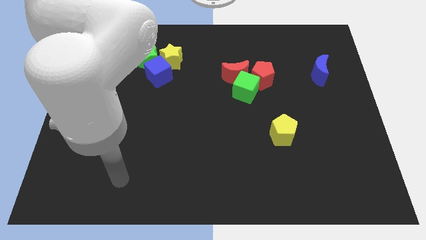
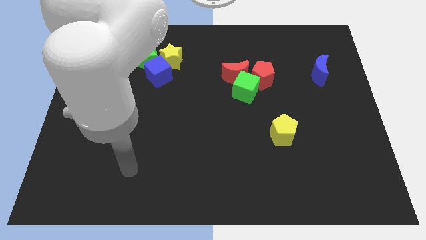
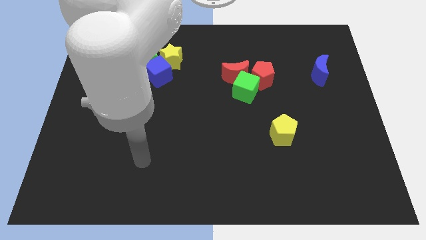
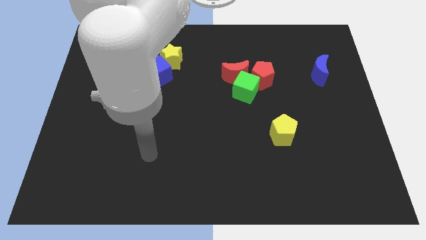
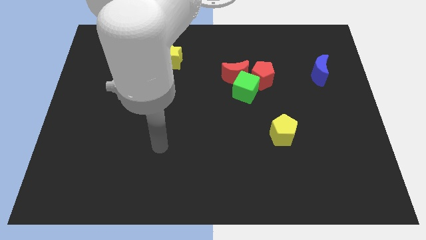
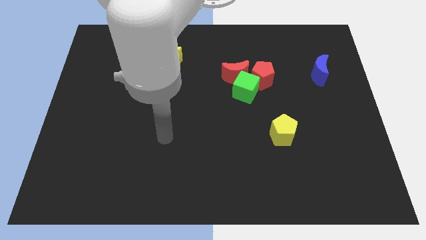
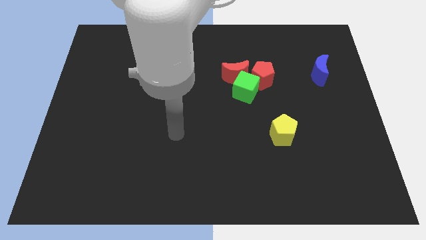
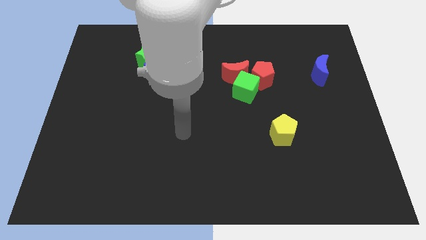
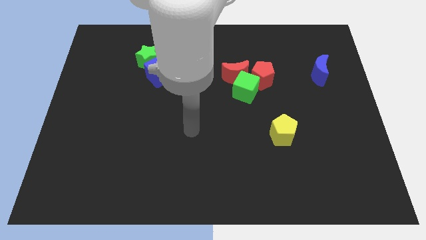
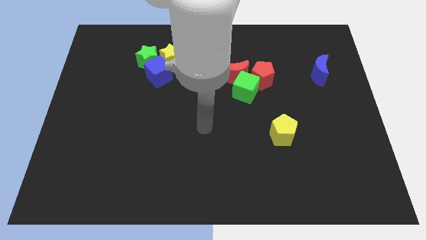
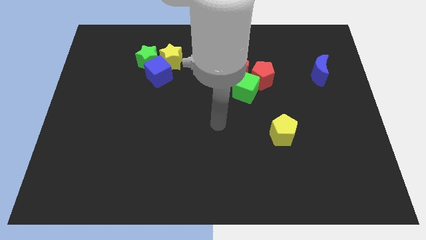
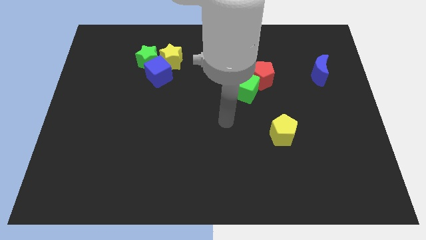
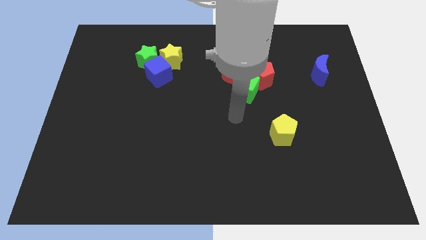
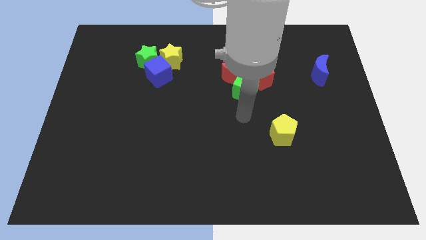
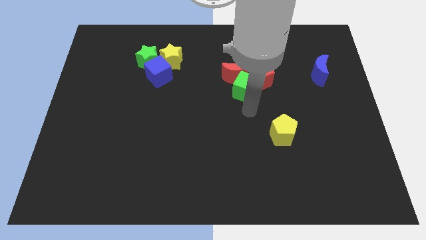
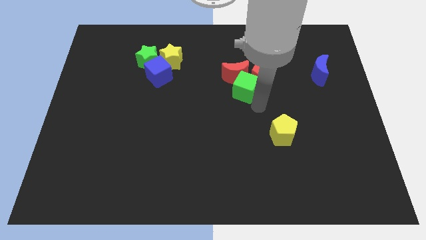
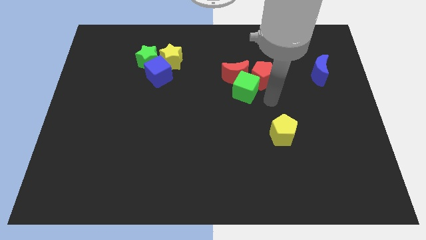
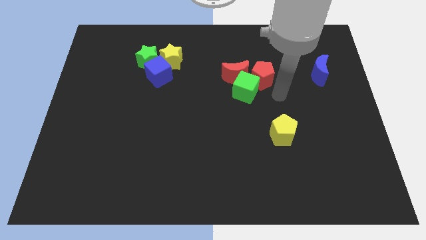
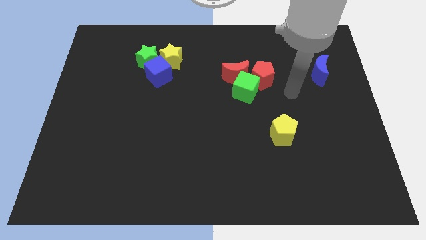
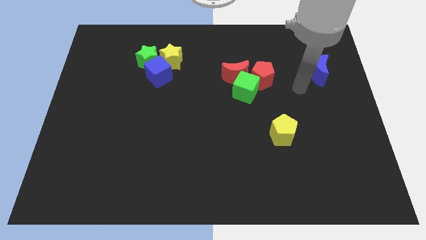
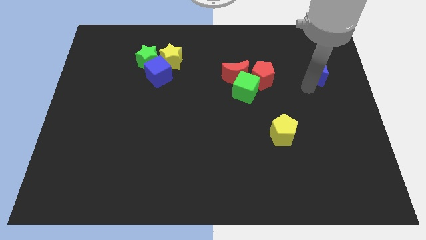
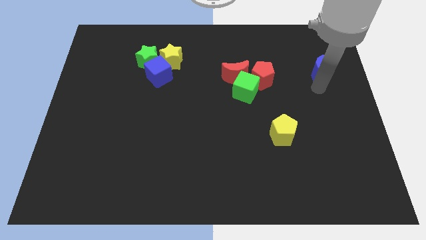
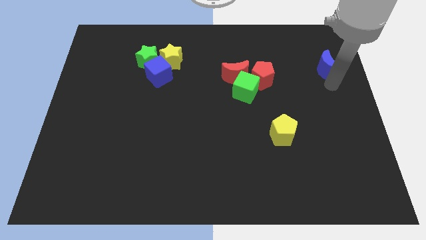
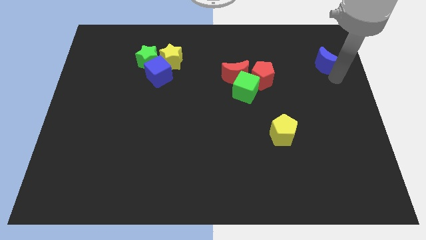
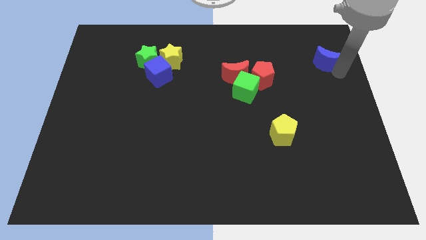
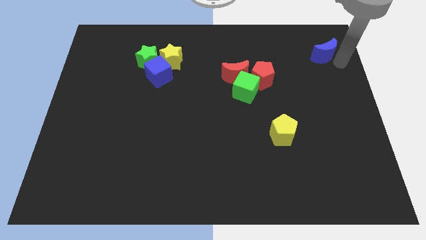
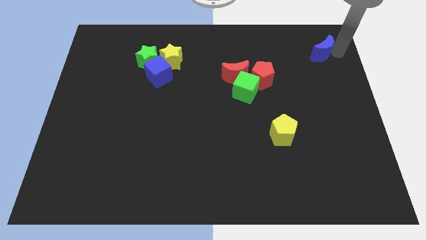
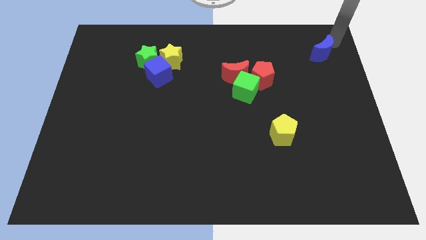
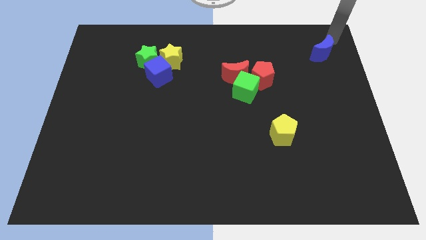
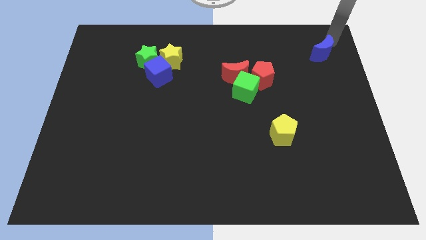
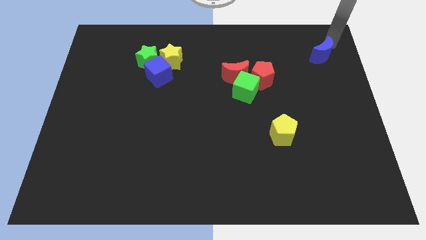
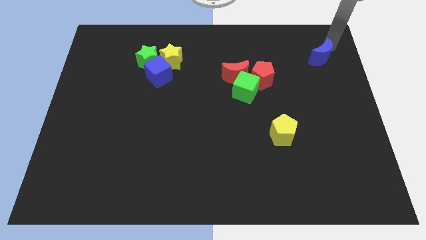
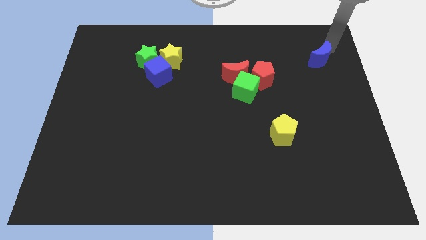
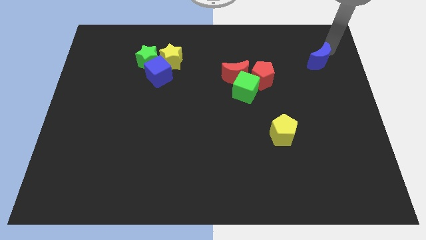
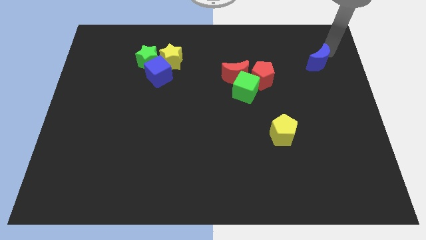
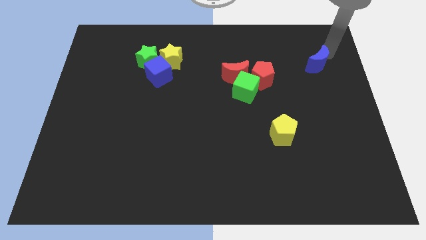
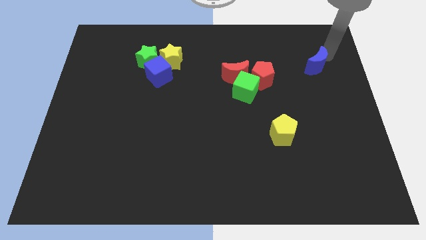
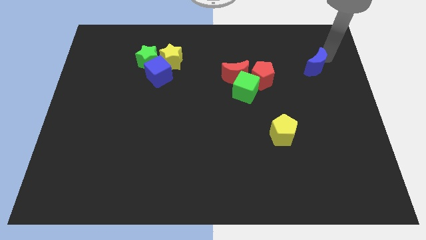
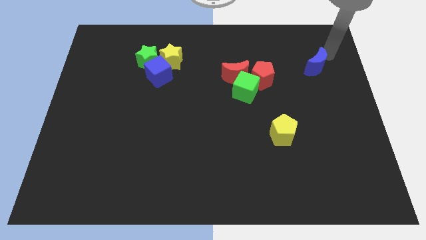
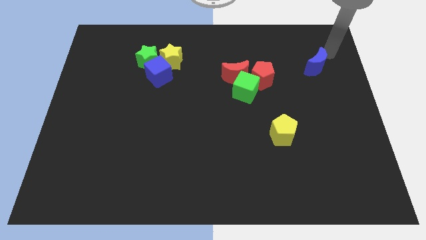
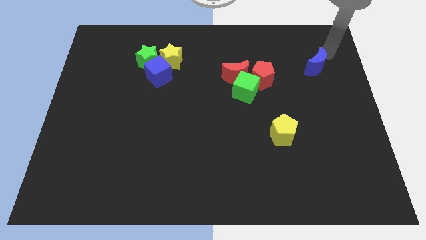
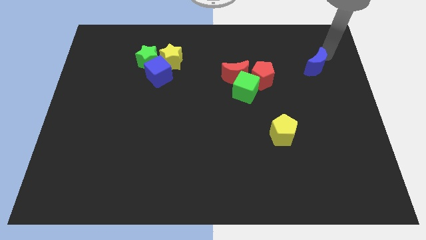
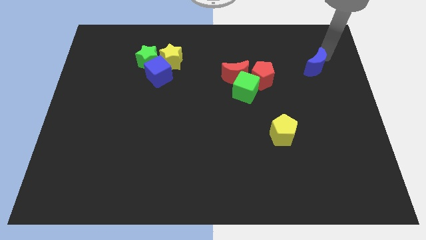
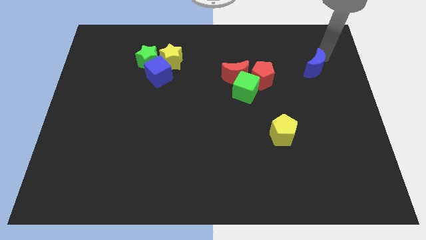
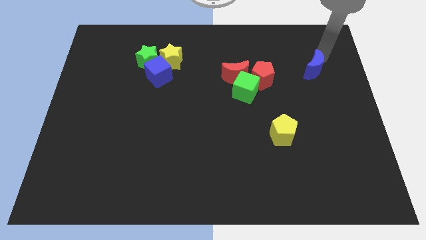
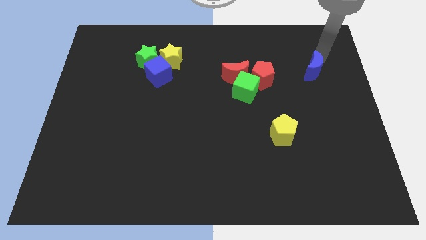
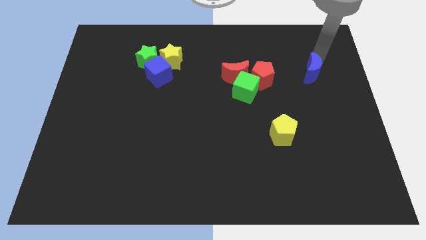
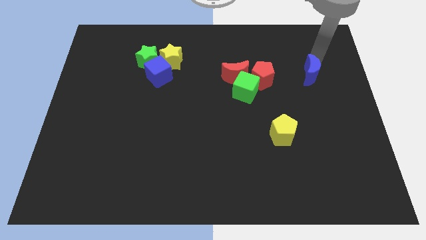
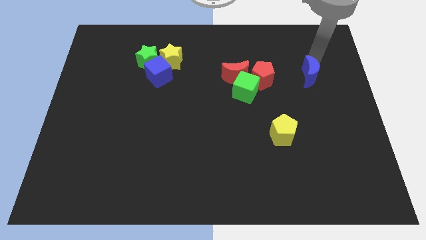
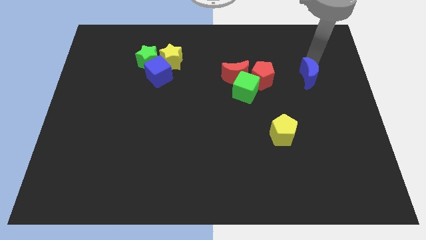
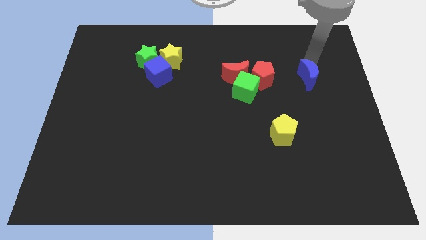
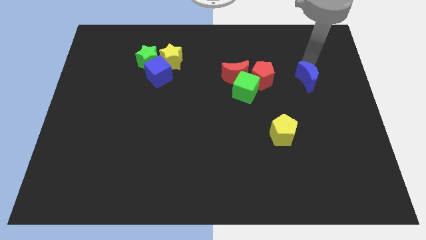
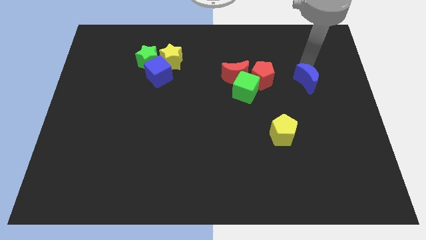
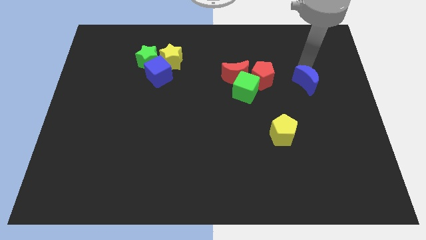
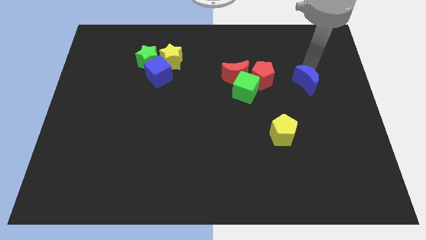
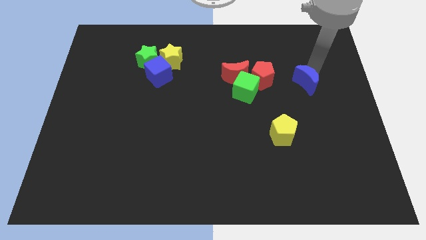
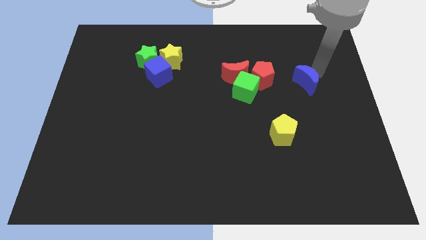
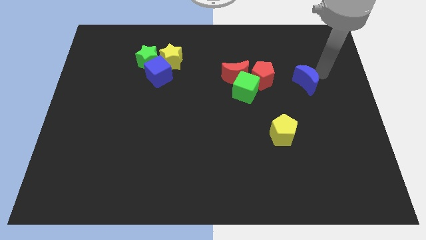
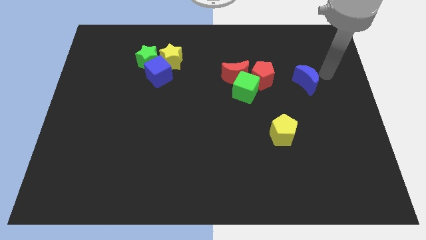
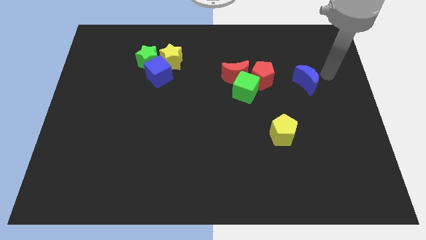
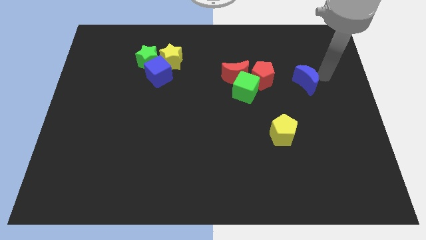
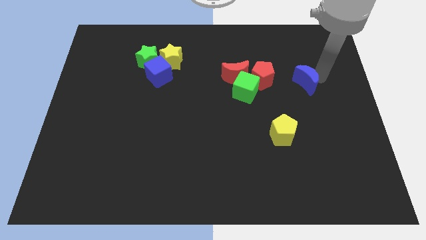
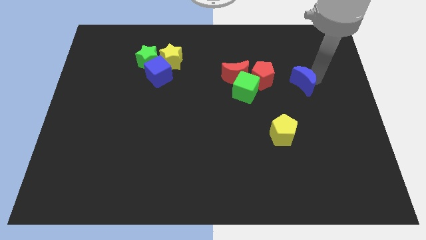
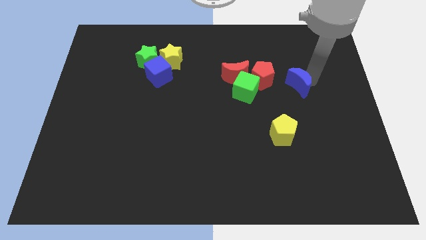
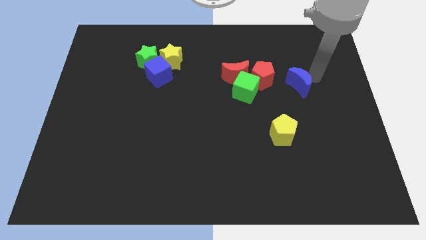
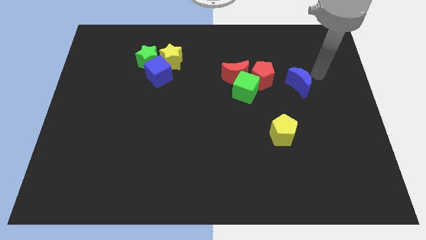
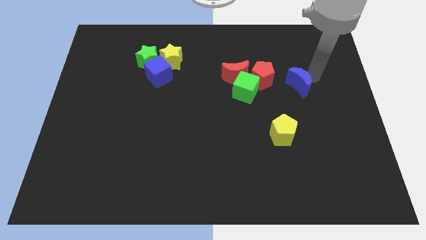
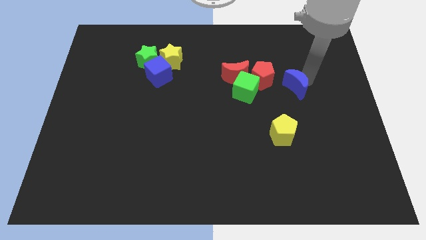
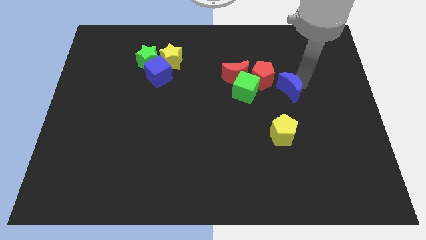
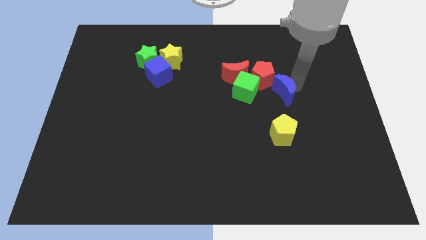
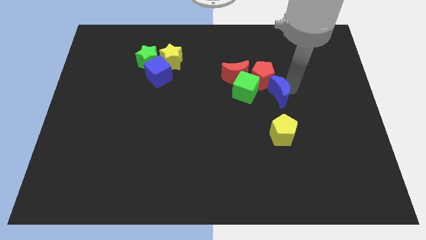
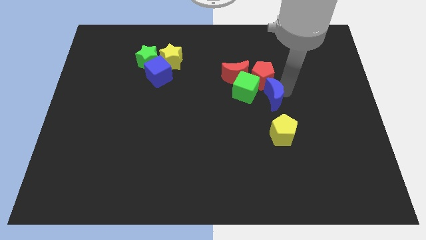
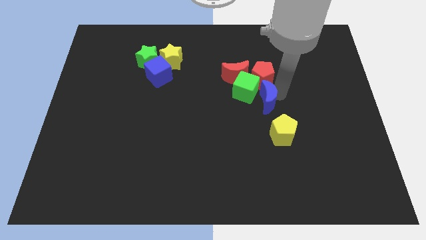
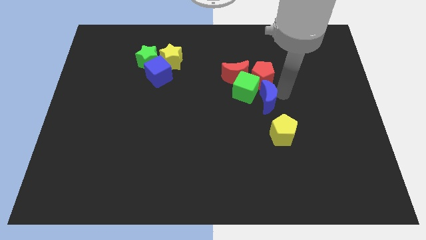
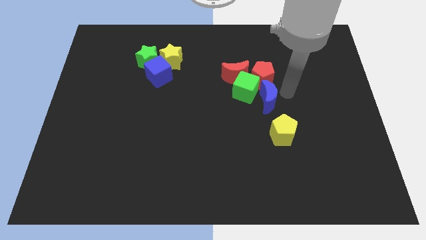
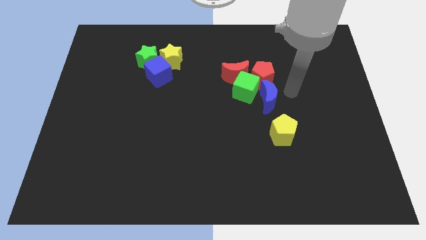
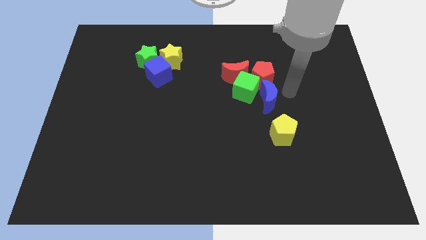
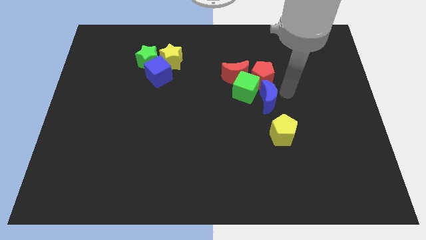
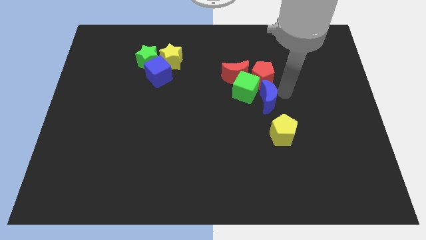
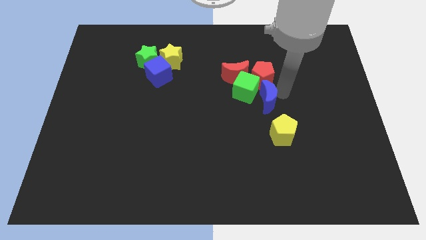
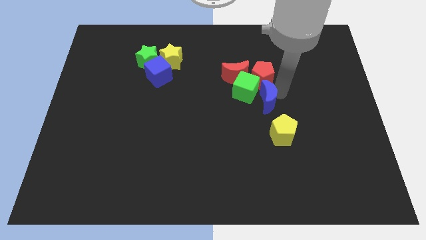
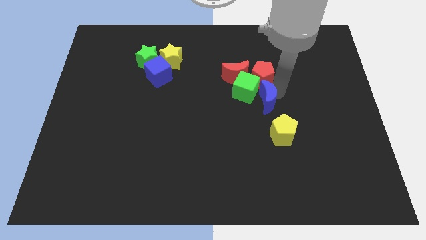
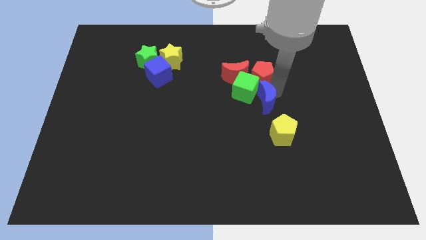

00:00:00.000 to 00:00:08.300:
push the blue moon to the middle of the board
